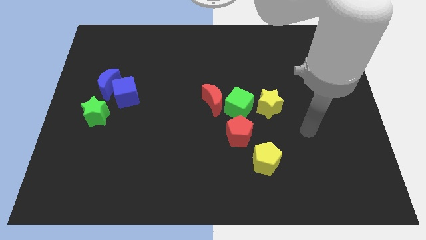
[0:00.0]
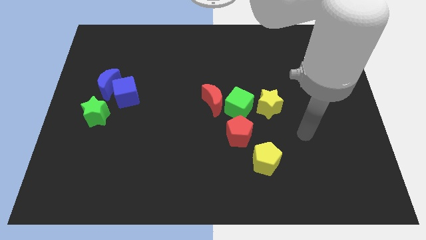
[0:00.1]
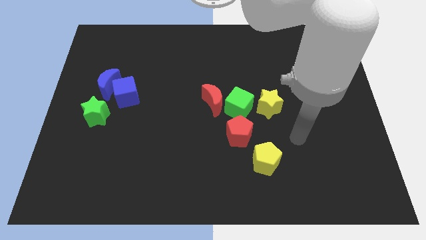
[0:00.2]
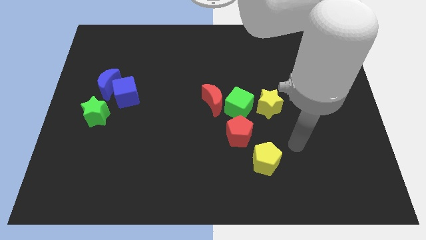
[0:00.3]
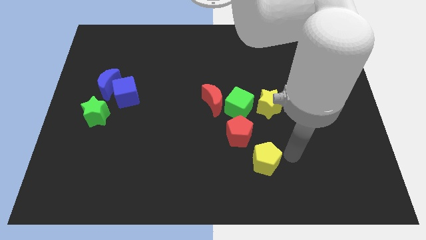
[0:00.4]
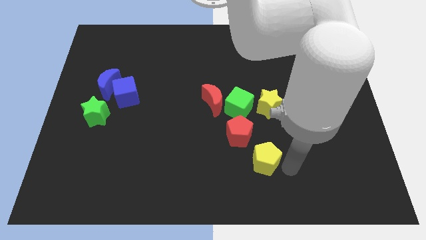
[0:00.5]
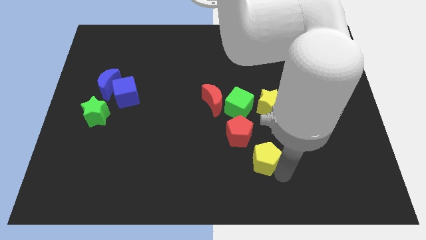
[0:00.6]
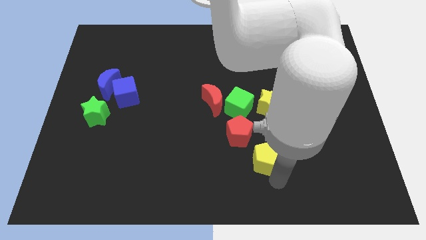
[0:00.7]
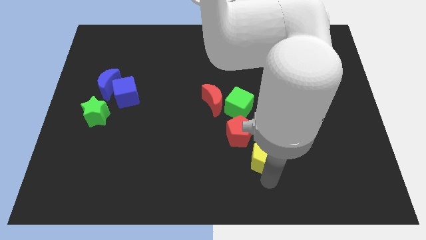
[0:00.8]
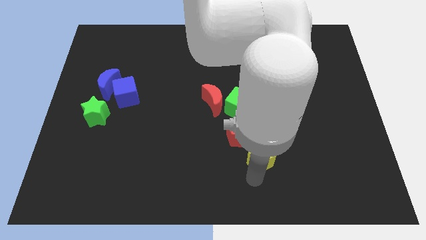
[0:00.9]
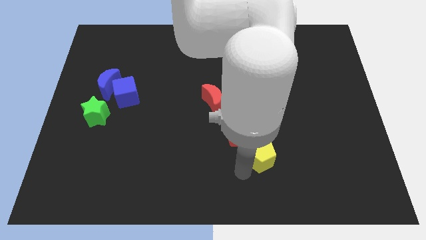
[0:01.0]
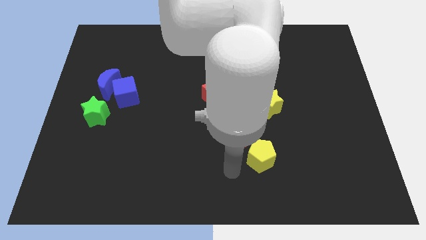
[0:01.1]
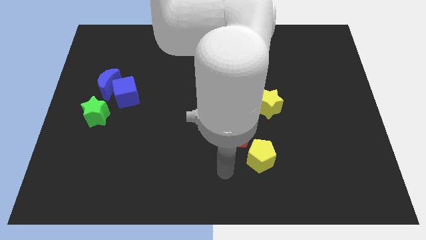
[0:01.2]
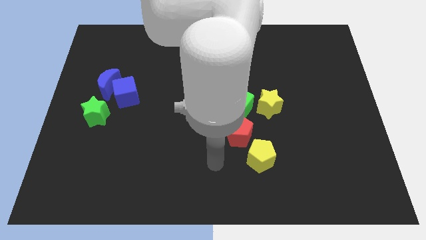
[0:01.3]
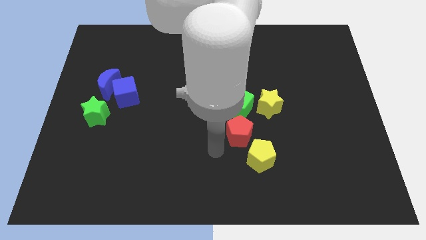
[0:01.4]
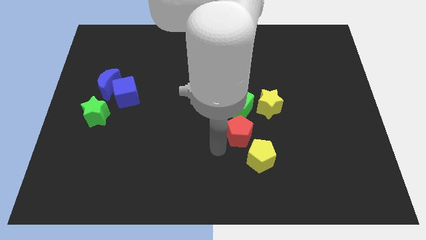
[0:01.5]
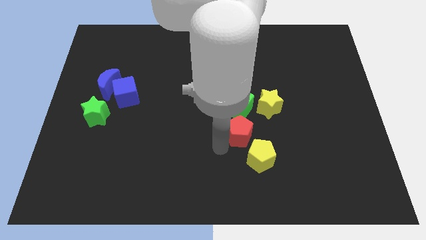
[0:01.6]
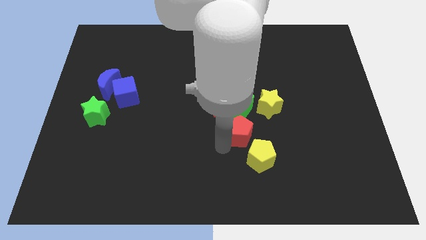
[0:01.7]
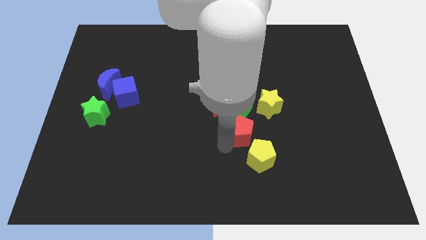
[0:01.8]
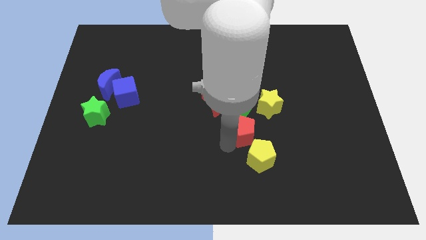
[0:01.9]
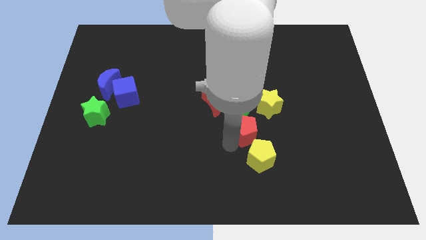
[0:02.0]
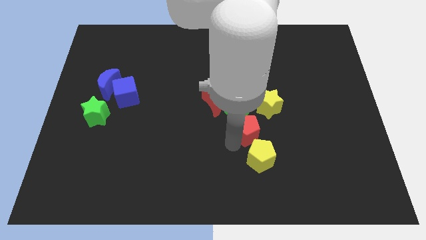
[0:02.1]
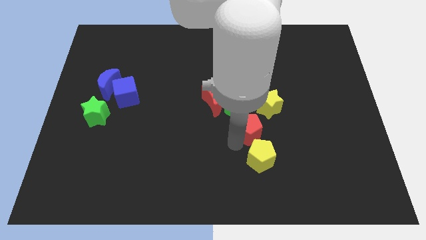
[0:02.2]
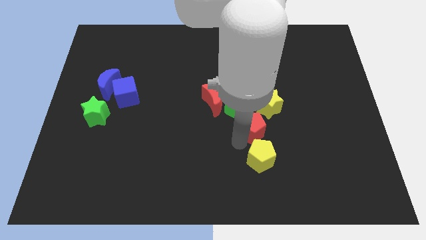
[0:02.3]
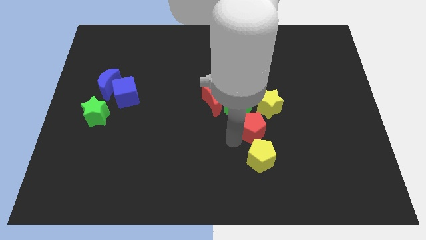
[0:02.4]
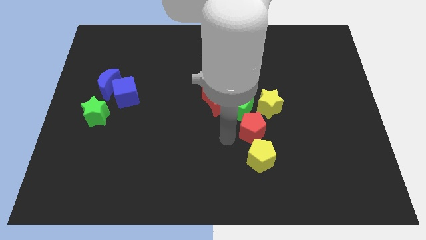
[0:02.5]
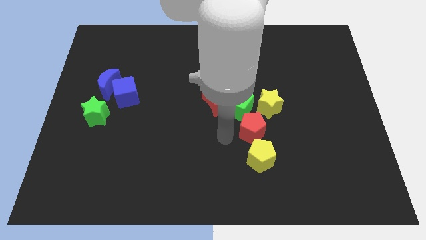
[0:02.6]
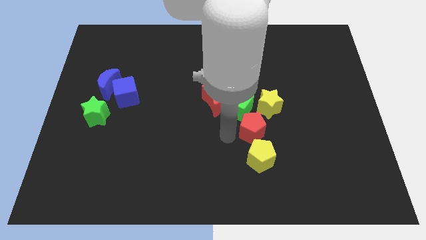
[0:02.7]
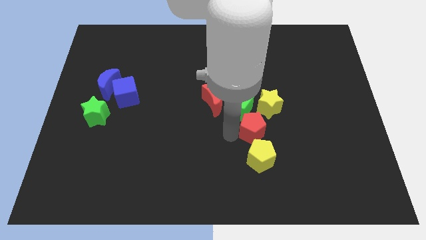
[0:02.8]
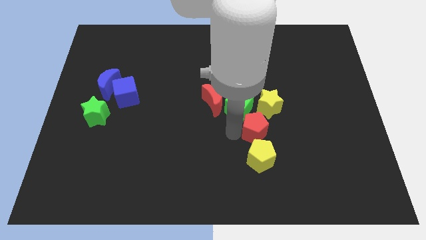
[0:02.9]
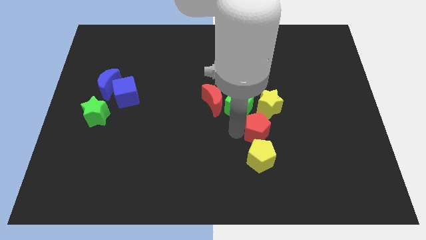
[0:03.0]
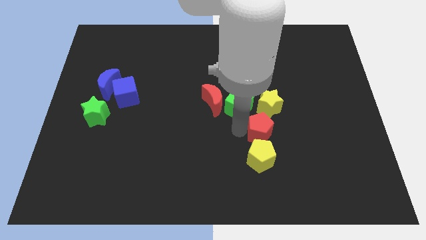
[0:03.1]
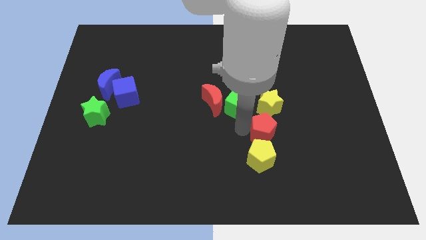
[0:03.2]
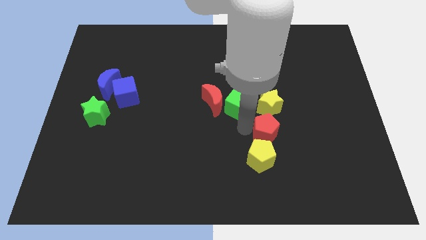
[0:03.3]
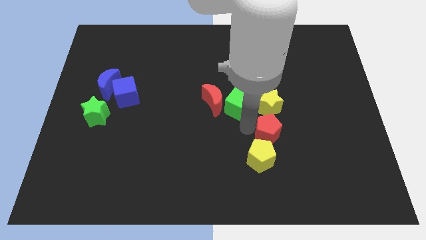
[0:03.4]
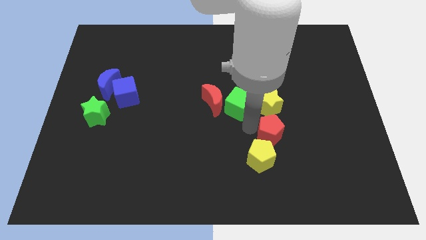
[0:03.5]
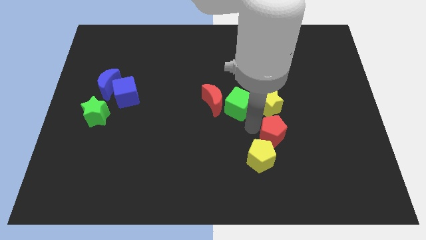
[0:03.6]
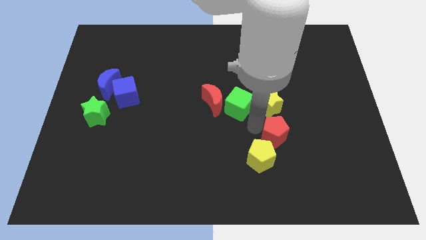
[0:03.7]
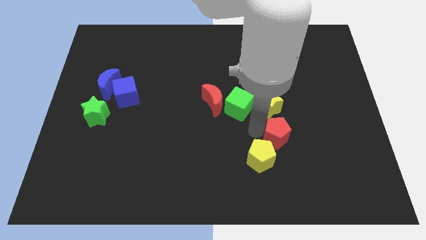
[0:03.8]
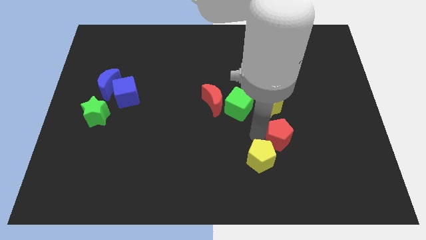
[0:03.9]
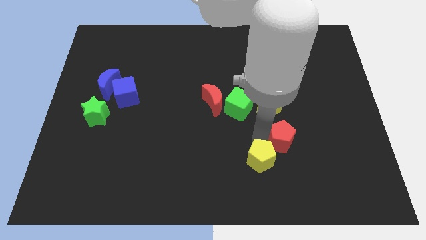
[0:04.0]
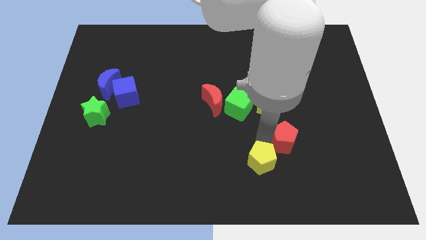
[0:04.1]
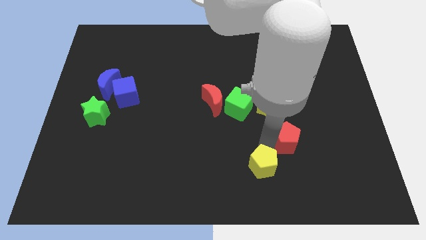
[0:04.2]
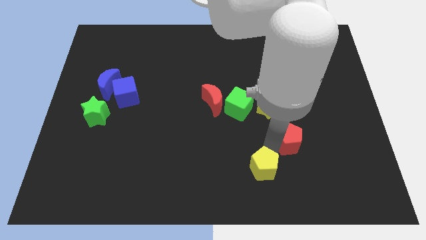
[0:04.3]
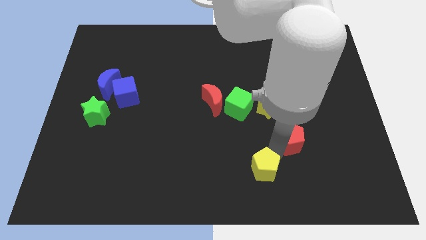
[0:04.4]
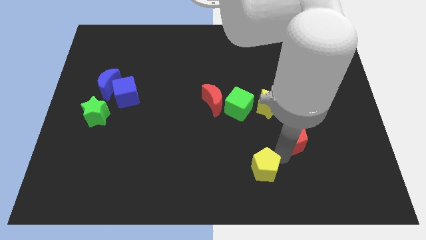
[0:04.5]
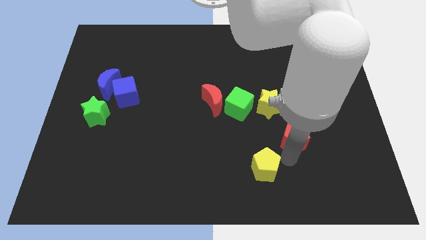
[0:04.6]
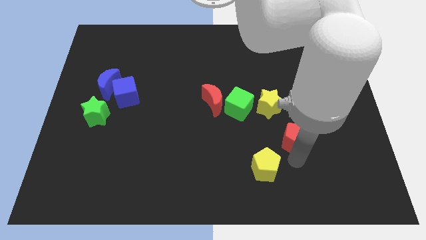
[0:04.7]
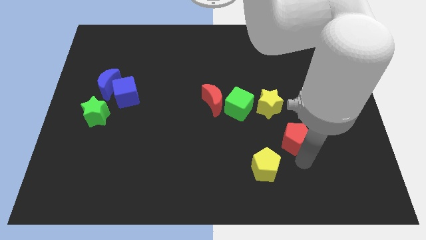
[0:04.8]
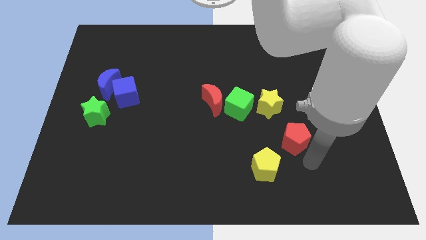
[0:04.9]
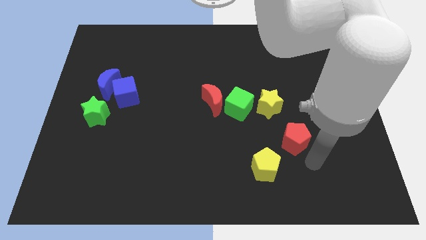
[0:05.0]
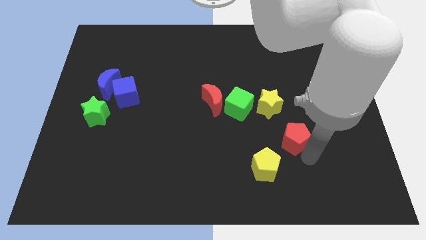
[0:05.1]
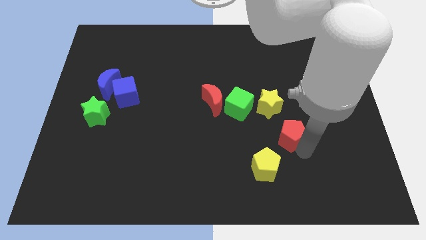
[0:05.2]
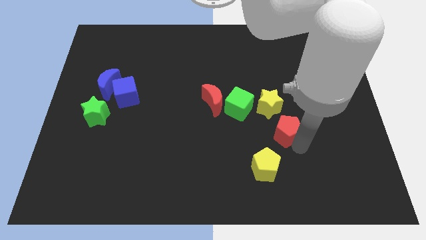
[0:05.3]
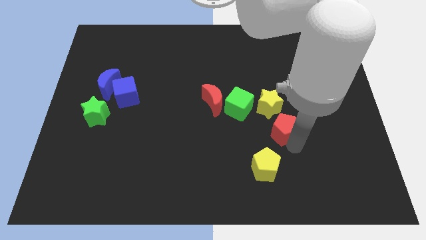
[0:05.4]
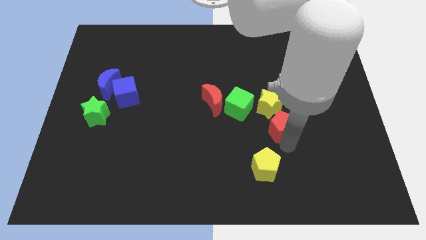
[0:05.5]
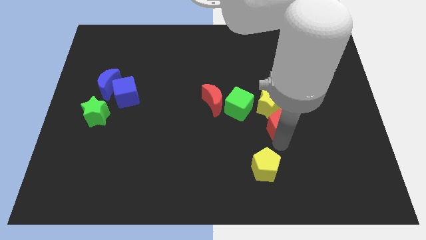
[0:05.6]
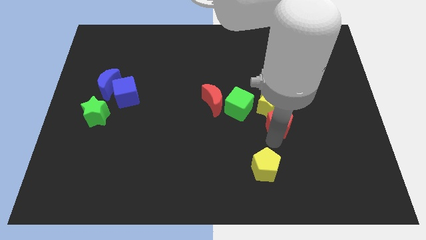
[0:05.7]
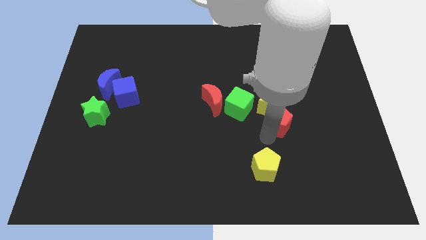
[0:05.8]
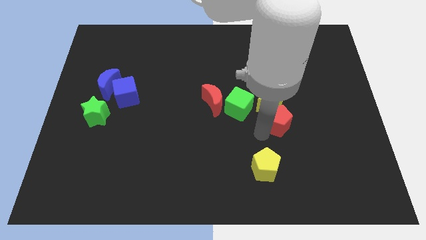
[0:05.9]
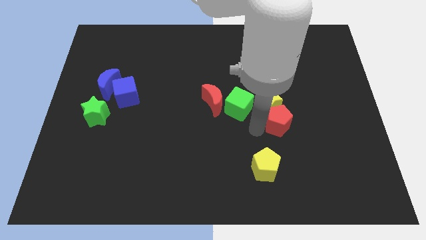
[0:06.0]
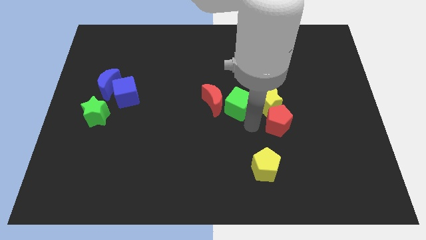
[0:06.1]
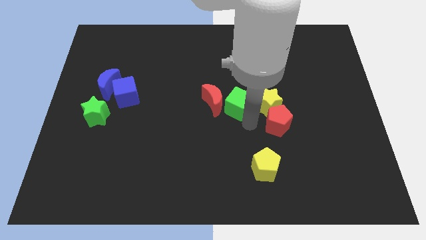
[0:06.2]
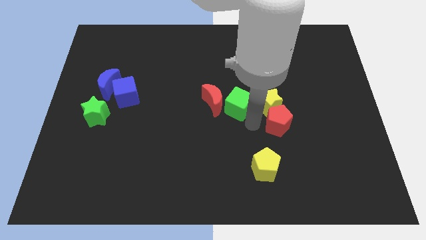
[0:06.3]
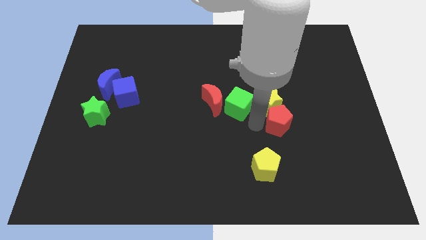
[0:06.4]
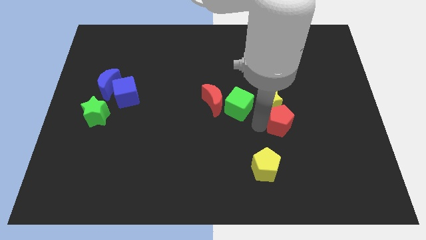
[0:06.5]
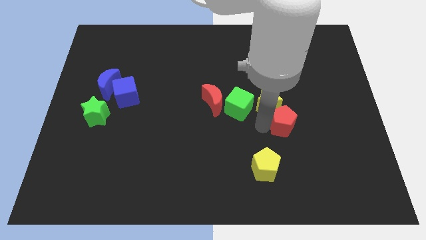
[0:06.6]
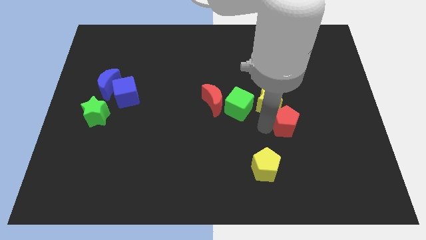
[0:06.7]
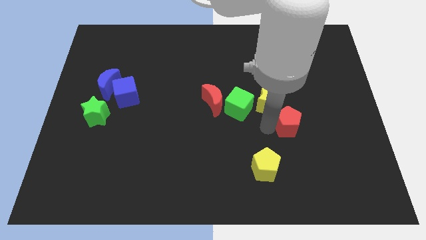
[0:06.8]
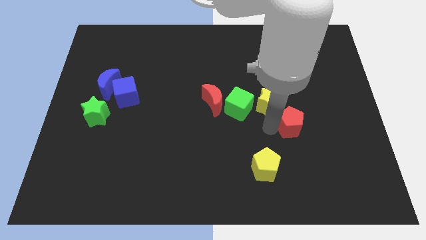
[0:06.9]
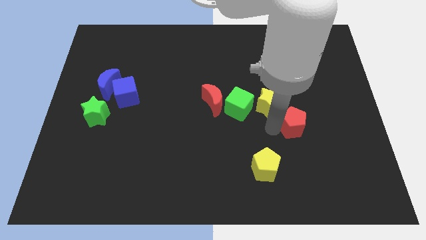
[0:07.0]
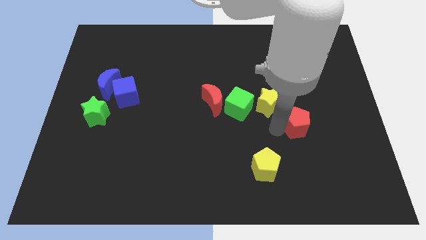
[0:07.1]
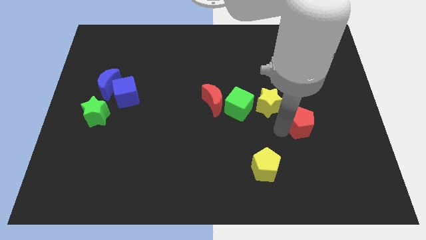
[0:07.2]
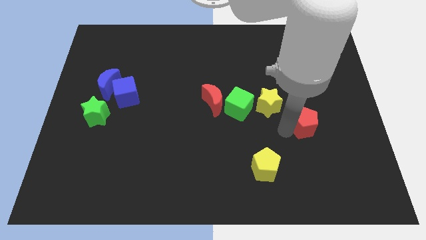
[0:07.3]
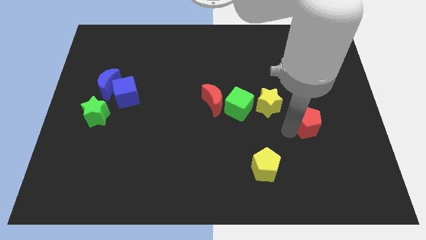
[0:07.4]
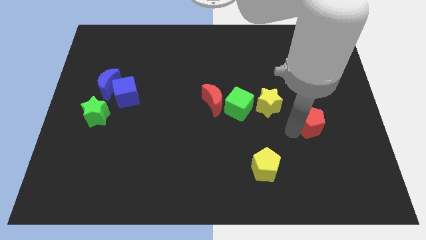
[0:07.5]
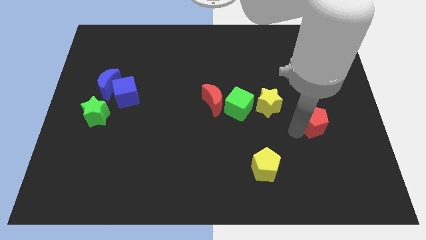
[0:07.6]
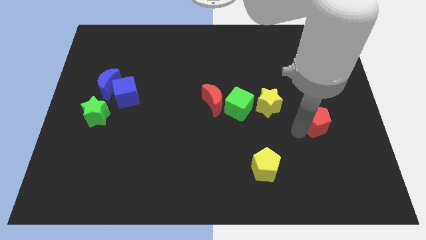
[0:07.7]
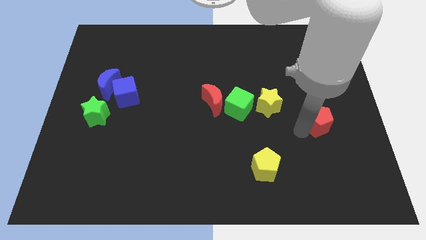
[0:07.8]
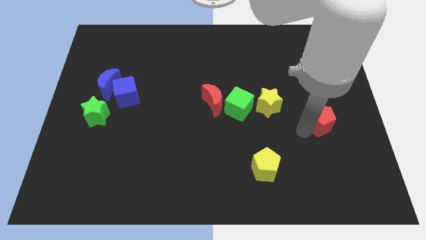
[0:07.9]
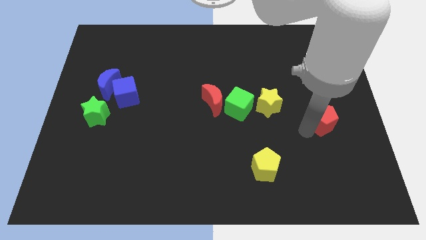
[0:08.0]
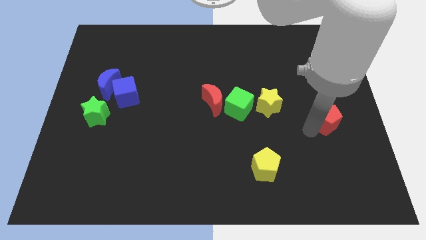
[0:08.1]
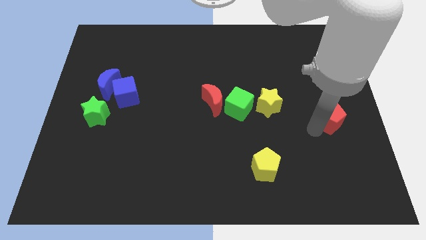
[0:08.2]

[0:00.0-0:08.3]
slide the red pentagon to the right side
